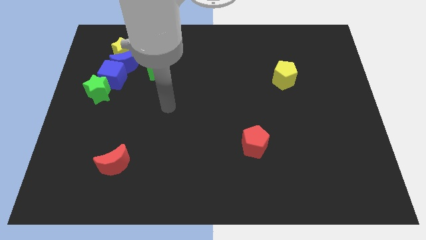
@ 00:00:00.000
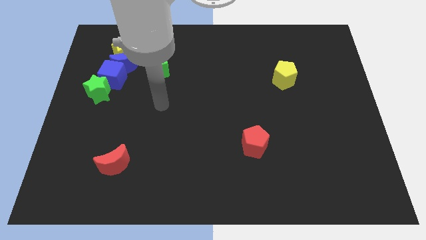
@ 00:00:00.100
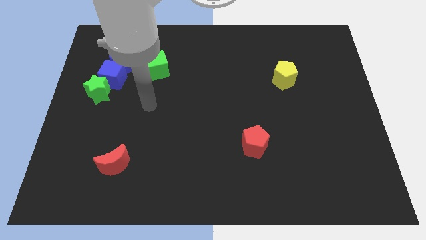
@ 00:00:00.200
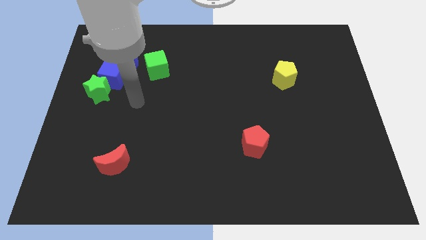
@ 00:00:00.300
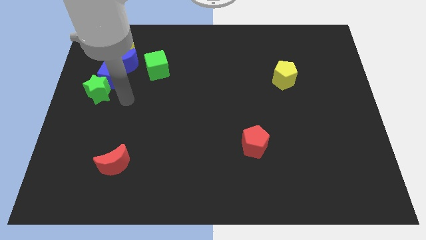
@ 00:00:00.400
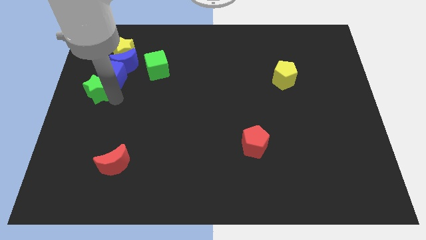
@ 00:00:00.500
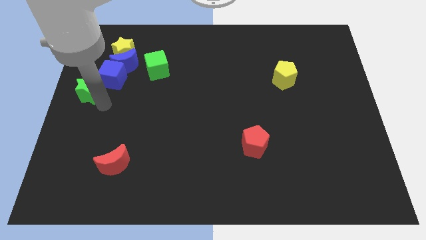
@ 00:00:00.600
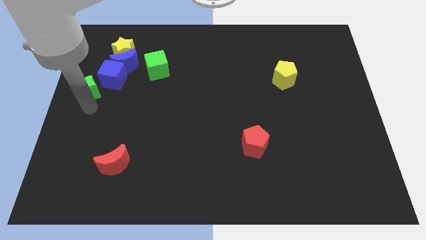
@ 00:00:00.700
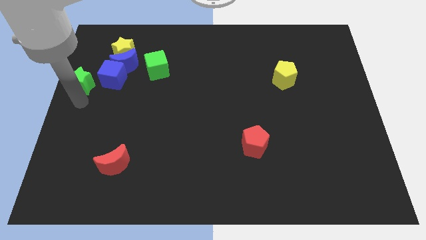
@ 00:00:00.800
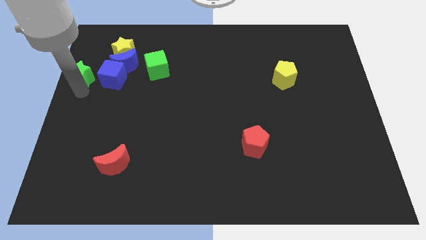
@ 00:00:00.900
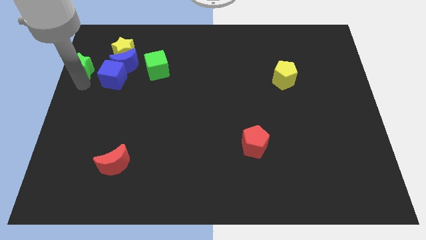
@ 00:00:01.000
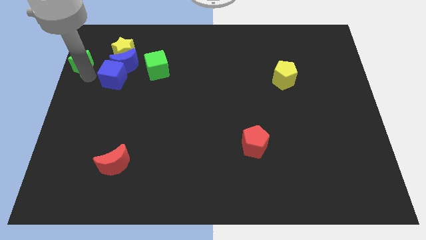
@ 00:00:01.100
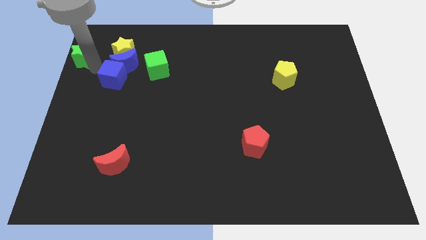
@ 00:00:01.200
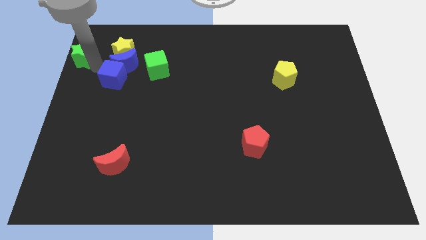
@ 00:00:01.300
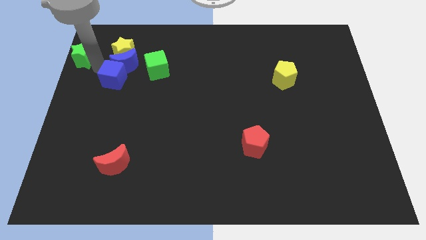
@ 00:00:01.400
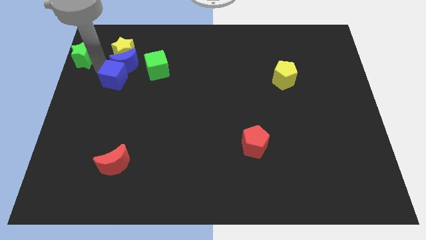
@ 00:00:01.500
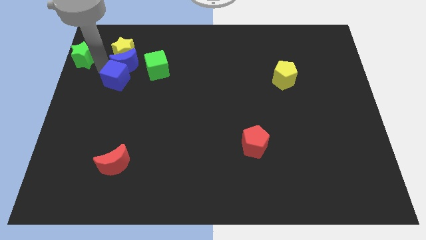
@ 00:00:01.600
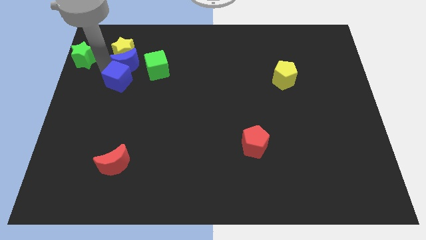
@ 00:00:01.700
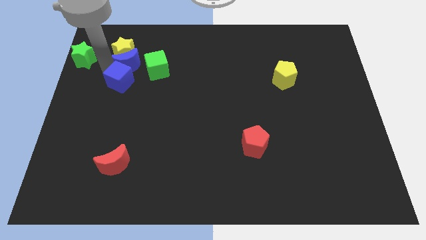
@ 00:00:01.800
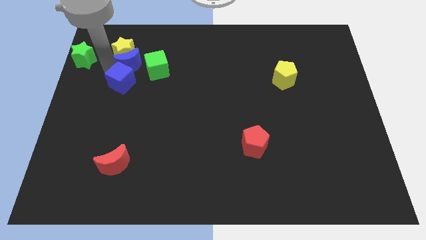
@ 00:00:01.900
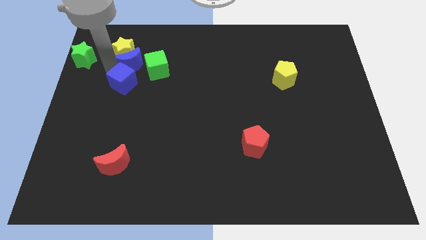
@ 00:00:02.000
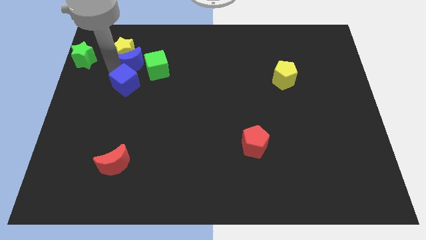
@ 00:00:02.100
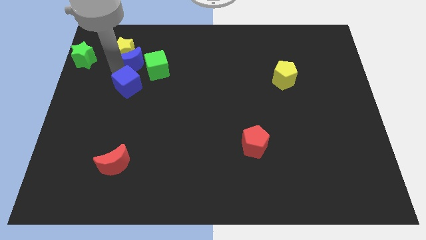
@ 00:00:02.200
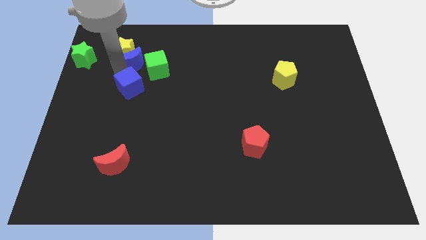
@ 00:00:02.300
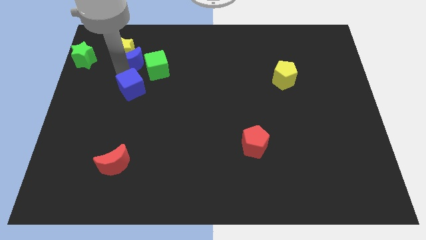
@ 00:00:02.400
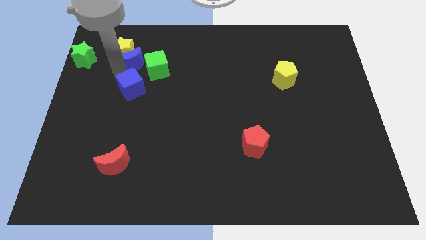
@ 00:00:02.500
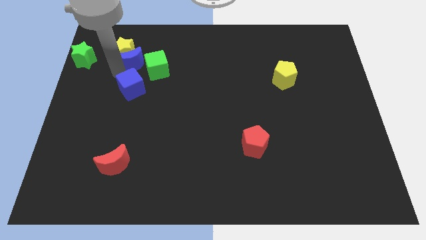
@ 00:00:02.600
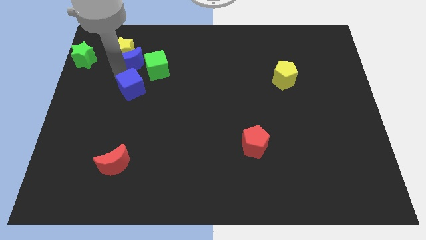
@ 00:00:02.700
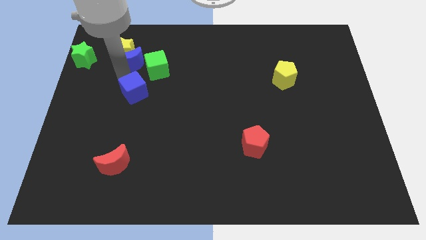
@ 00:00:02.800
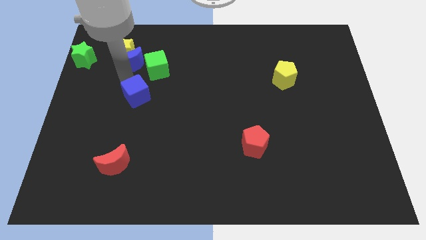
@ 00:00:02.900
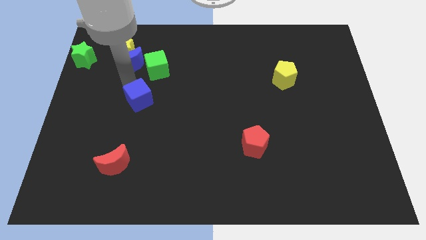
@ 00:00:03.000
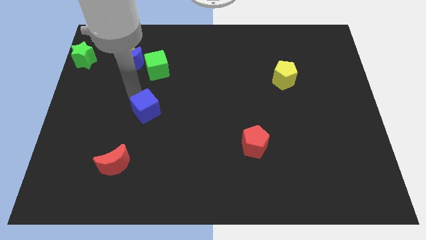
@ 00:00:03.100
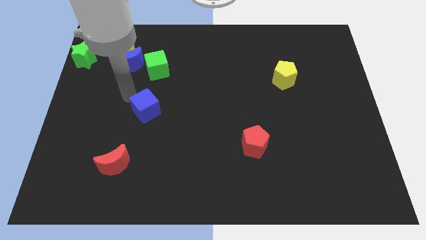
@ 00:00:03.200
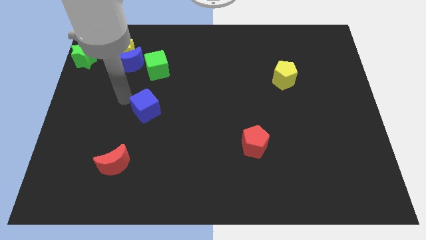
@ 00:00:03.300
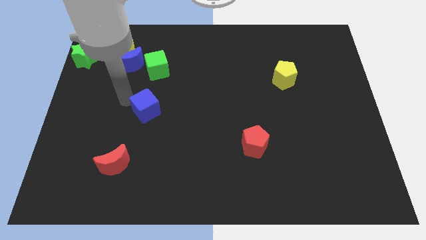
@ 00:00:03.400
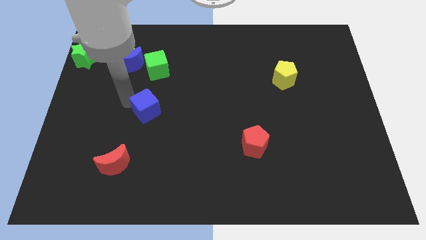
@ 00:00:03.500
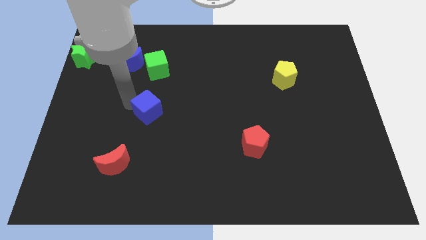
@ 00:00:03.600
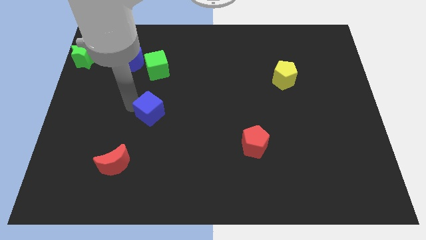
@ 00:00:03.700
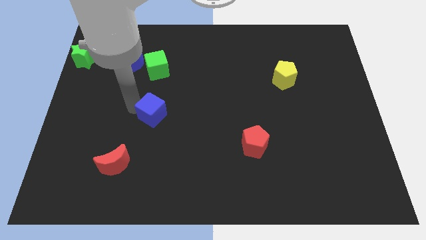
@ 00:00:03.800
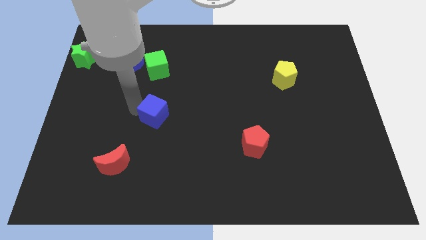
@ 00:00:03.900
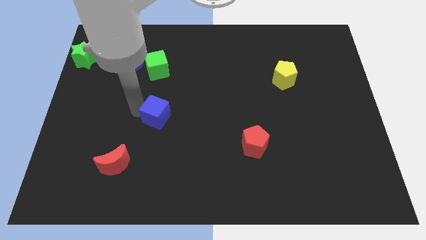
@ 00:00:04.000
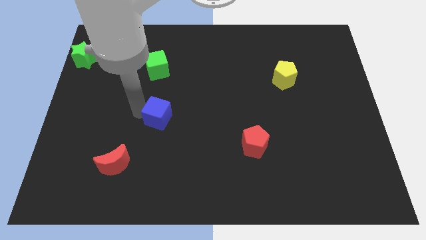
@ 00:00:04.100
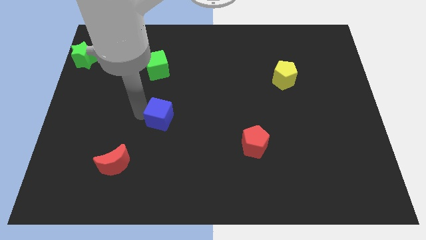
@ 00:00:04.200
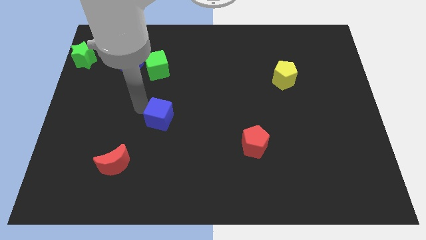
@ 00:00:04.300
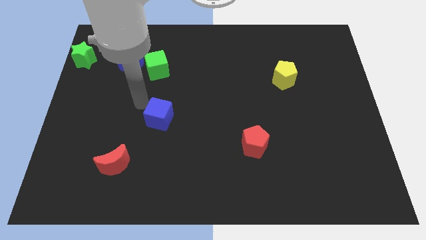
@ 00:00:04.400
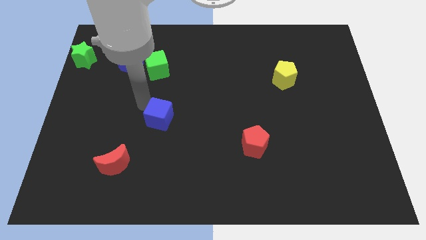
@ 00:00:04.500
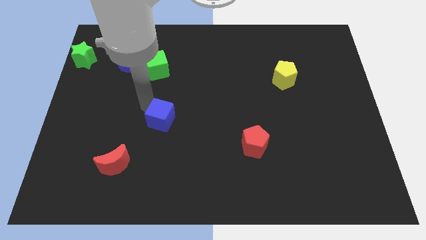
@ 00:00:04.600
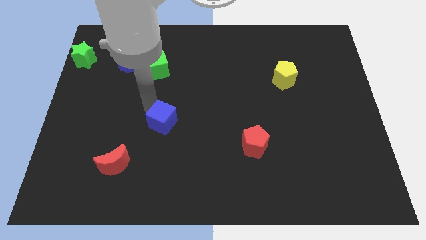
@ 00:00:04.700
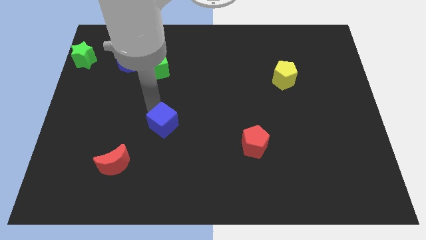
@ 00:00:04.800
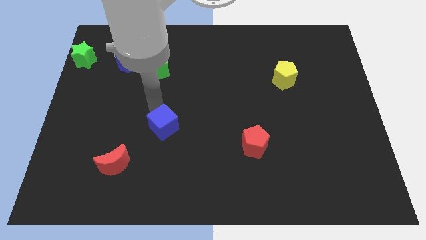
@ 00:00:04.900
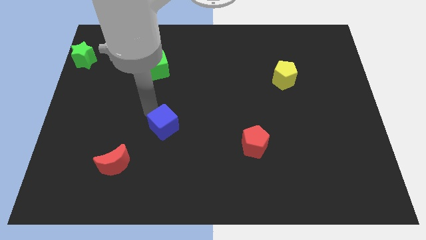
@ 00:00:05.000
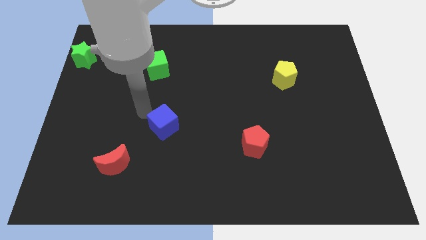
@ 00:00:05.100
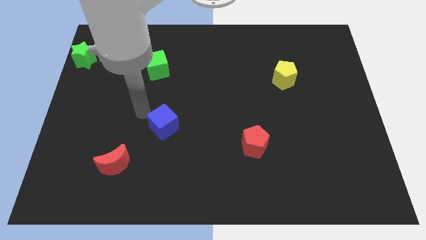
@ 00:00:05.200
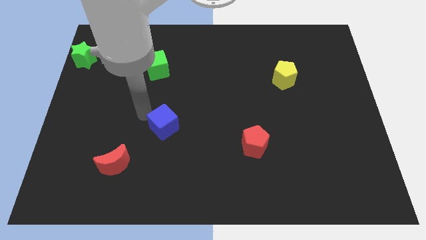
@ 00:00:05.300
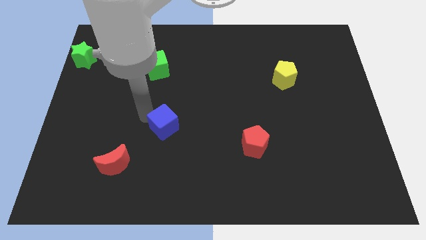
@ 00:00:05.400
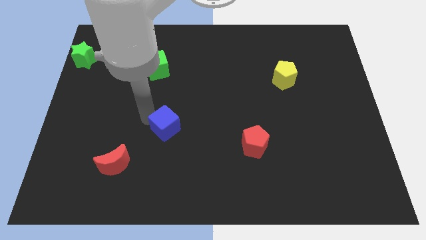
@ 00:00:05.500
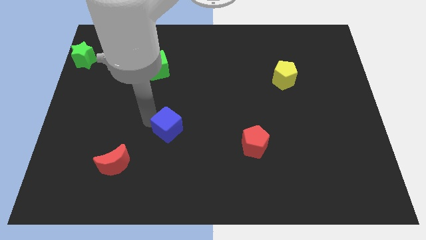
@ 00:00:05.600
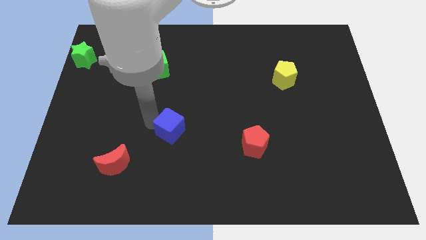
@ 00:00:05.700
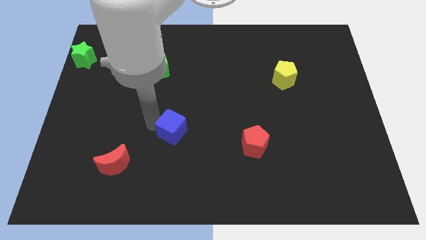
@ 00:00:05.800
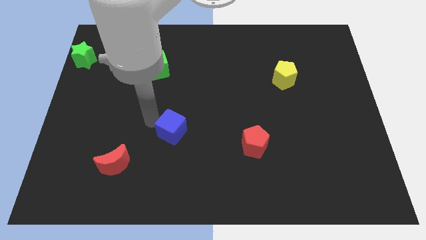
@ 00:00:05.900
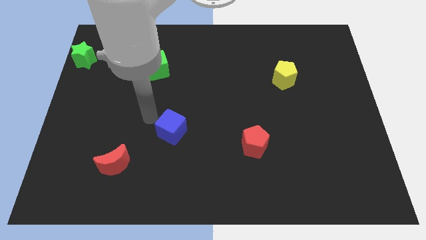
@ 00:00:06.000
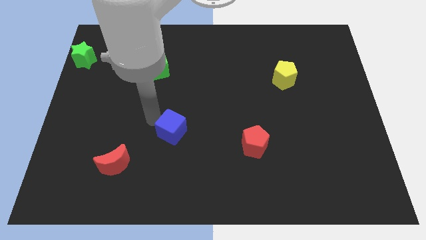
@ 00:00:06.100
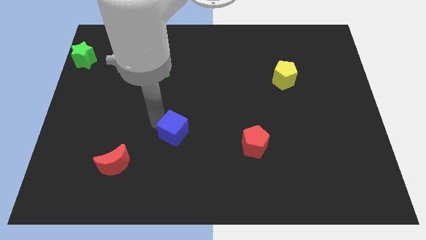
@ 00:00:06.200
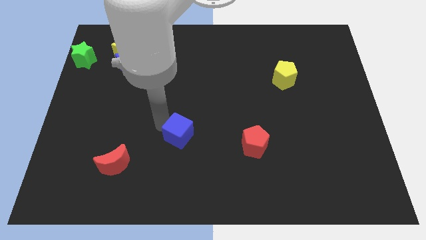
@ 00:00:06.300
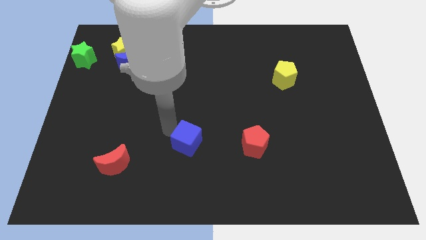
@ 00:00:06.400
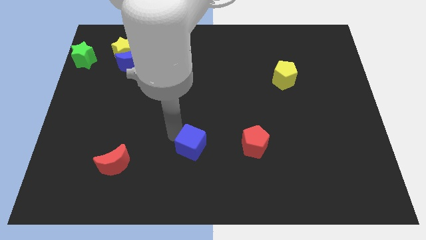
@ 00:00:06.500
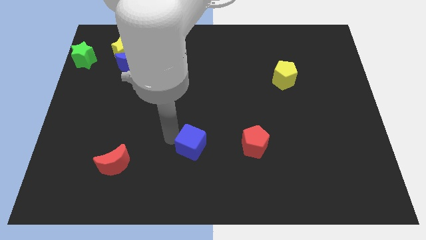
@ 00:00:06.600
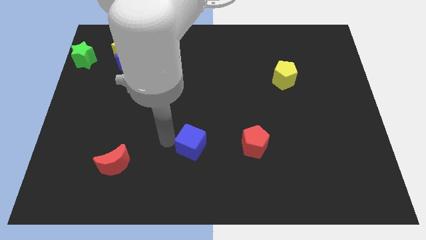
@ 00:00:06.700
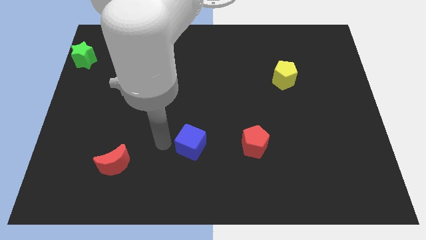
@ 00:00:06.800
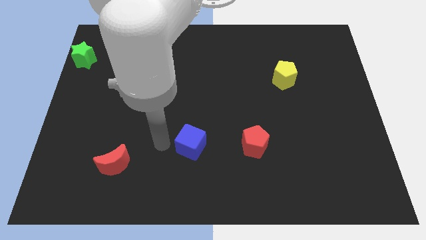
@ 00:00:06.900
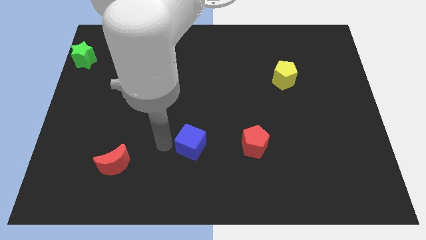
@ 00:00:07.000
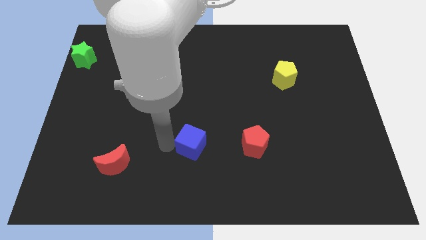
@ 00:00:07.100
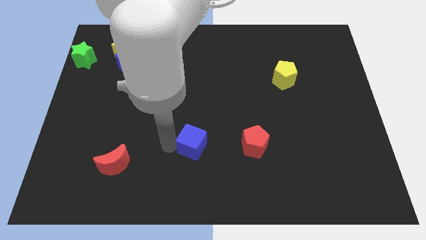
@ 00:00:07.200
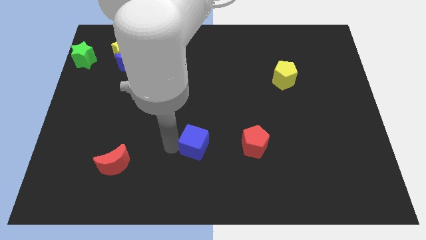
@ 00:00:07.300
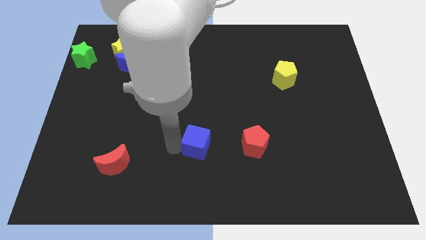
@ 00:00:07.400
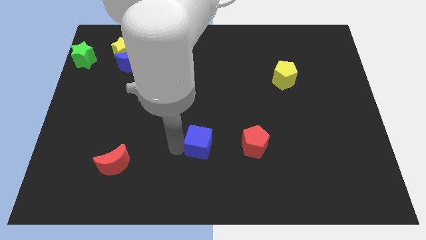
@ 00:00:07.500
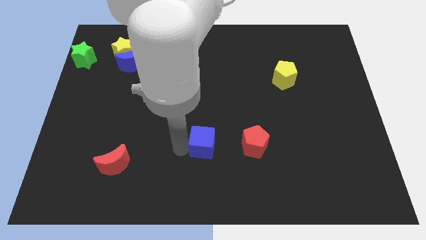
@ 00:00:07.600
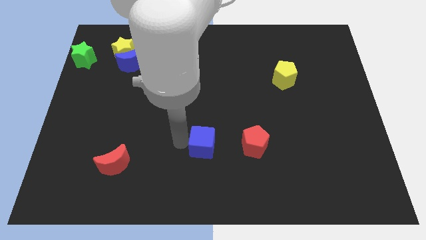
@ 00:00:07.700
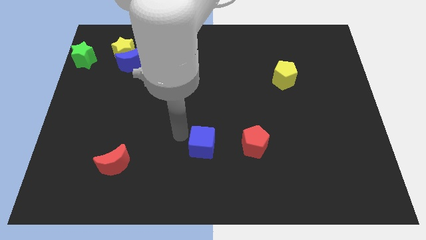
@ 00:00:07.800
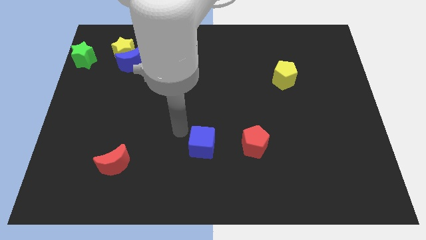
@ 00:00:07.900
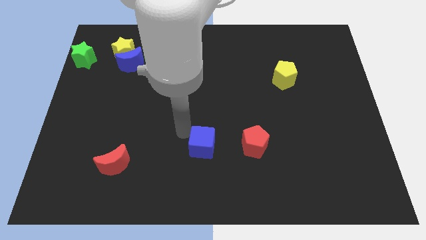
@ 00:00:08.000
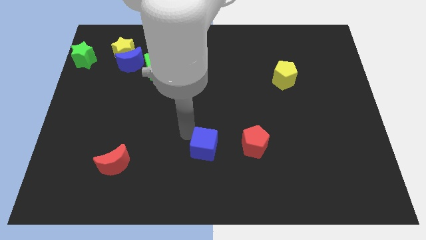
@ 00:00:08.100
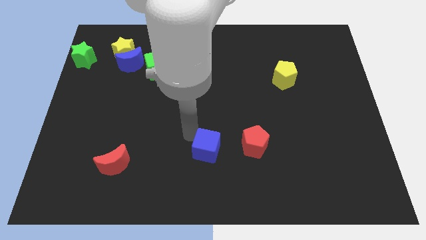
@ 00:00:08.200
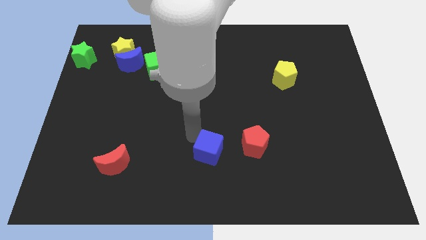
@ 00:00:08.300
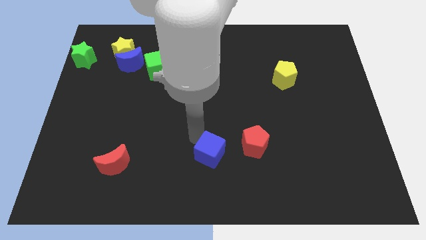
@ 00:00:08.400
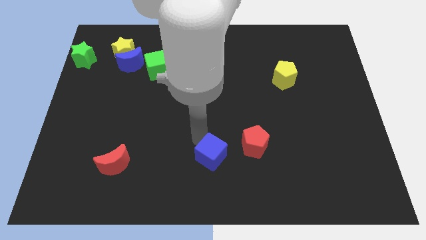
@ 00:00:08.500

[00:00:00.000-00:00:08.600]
move the blue cube to the bottom left side of the red pentagon
